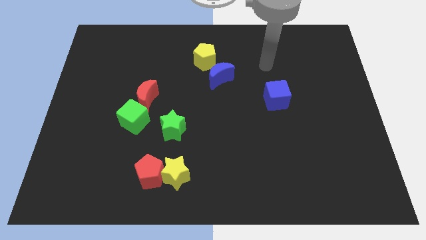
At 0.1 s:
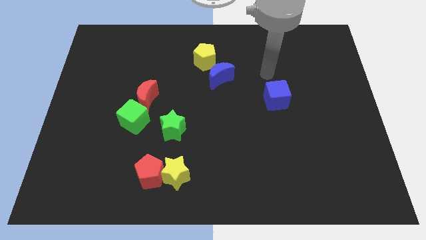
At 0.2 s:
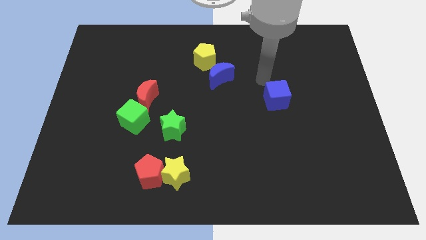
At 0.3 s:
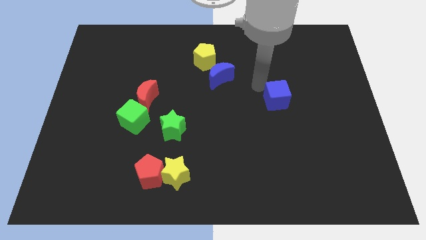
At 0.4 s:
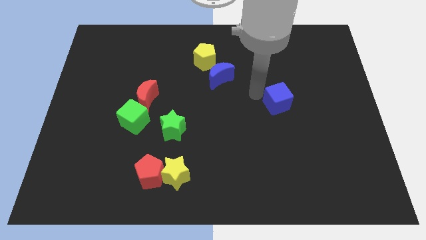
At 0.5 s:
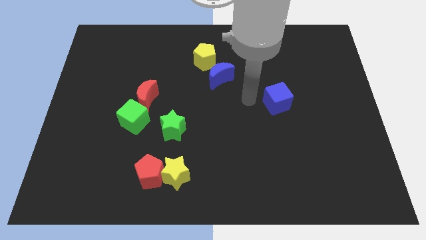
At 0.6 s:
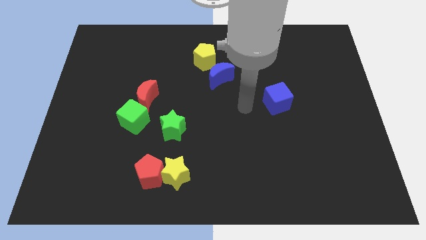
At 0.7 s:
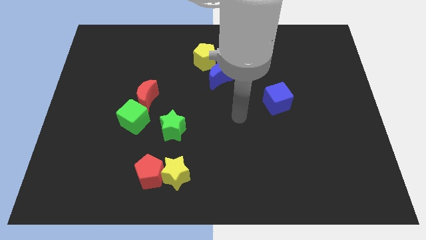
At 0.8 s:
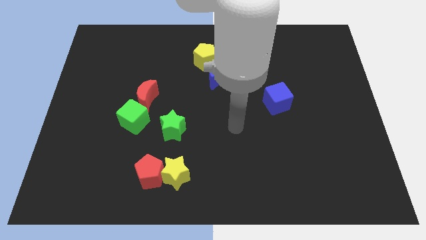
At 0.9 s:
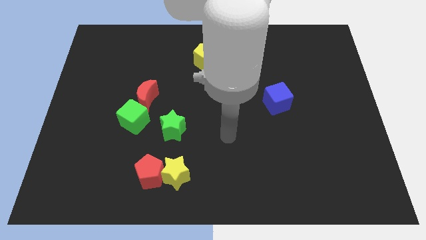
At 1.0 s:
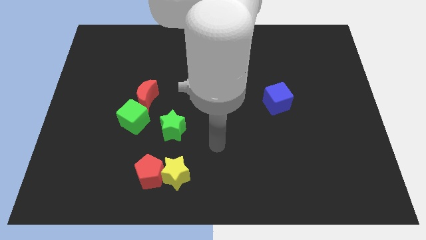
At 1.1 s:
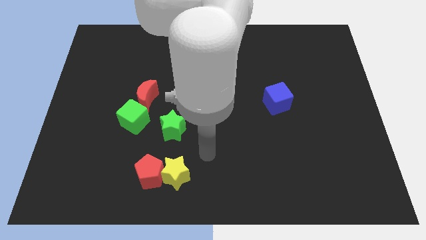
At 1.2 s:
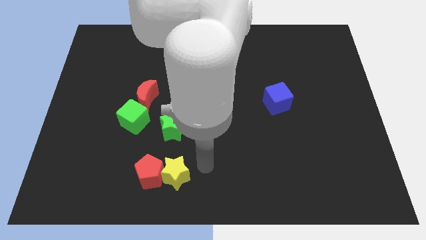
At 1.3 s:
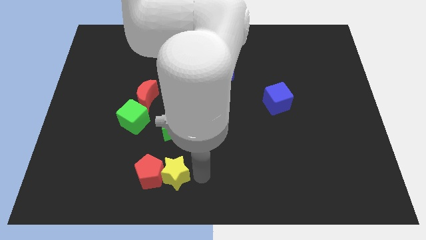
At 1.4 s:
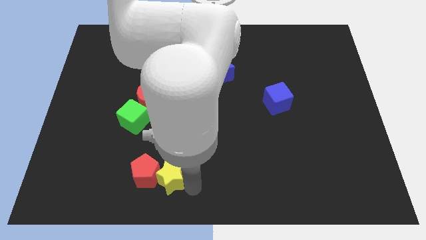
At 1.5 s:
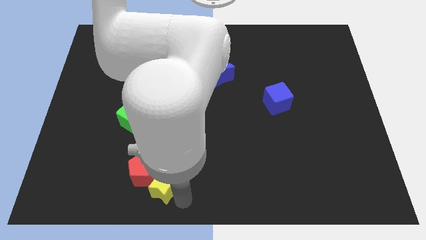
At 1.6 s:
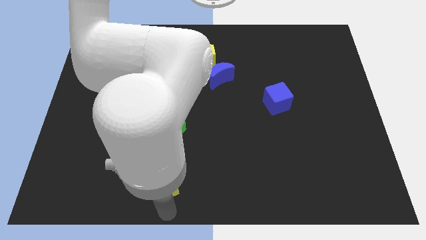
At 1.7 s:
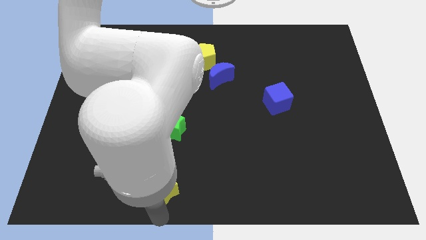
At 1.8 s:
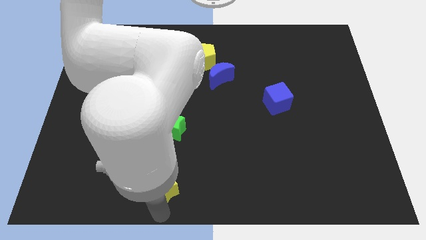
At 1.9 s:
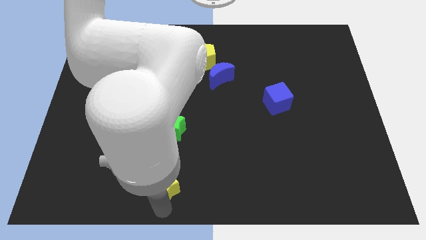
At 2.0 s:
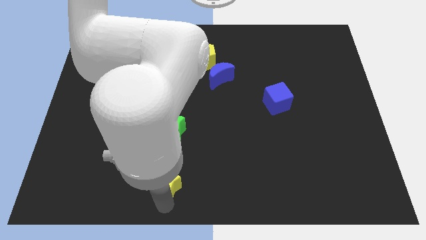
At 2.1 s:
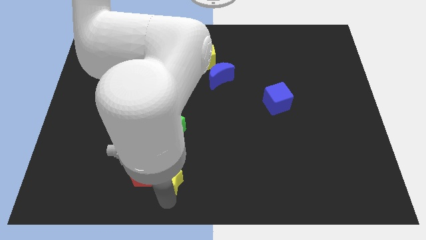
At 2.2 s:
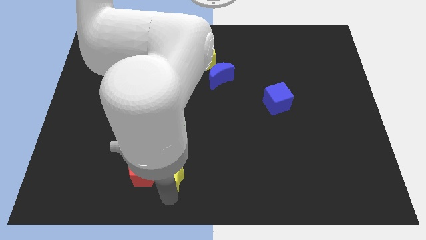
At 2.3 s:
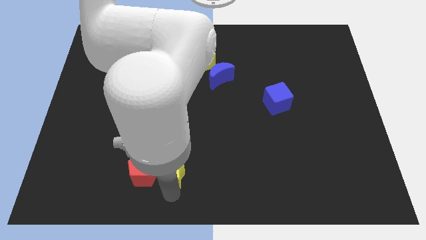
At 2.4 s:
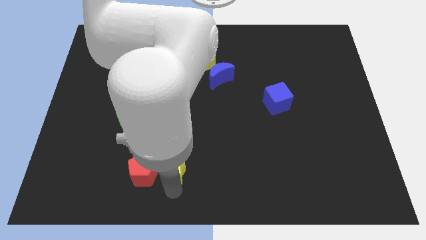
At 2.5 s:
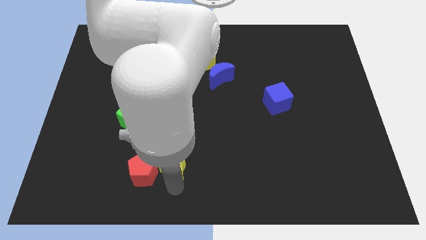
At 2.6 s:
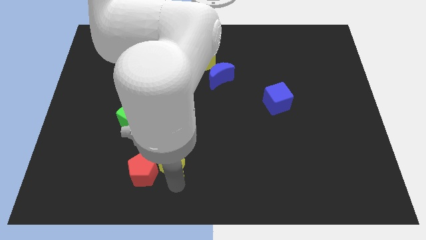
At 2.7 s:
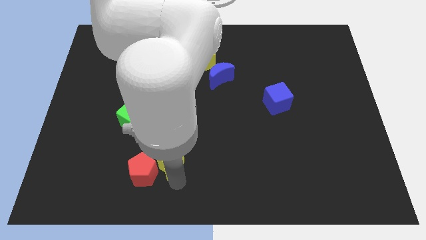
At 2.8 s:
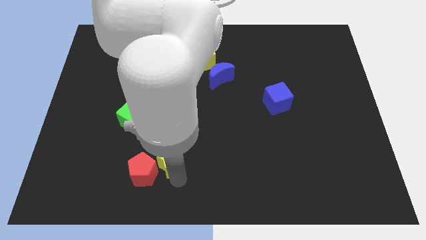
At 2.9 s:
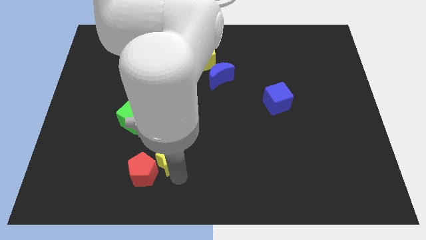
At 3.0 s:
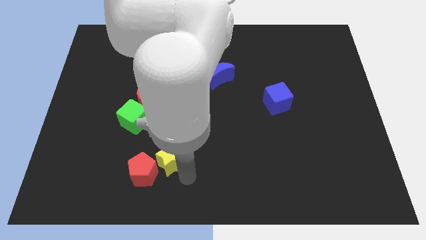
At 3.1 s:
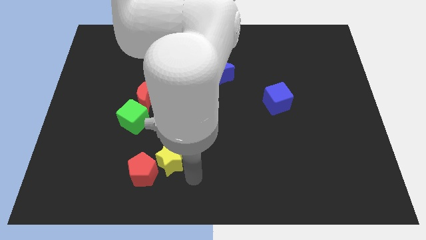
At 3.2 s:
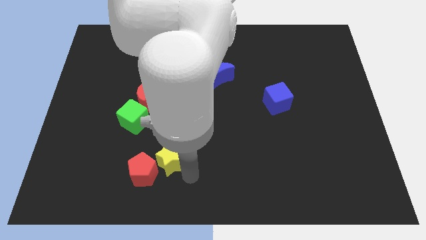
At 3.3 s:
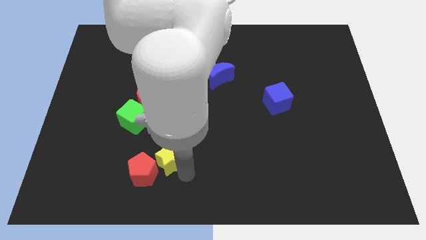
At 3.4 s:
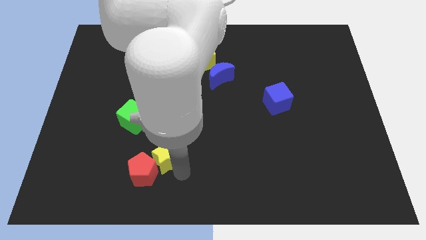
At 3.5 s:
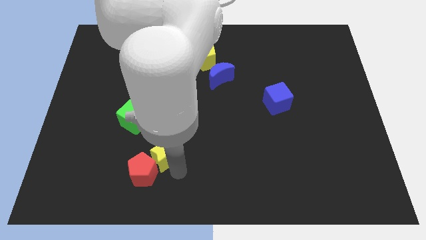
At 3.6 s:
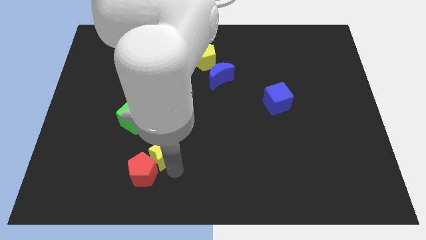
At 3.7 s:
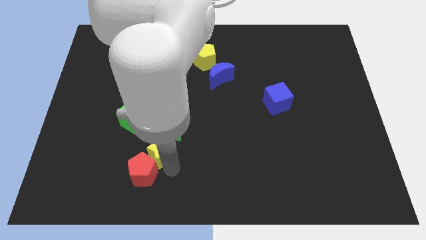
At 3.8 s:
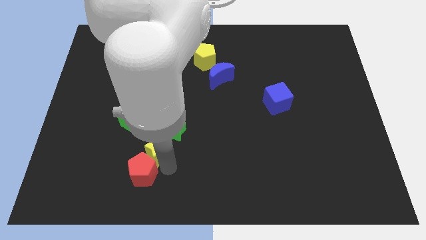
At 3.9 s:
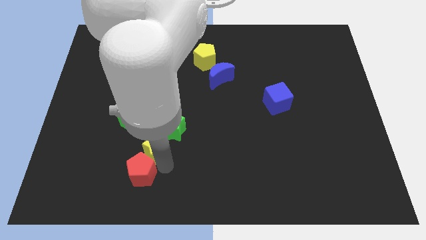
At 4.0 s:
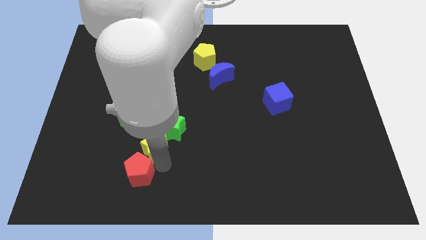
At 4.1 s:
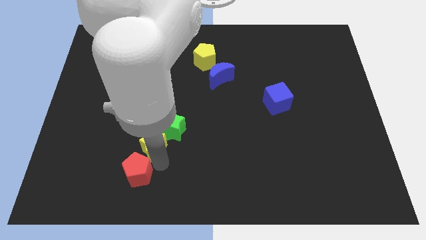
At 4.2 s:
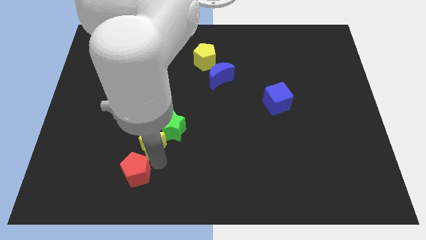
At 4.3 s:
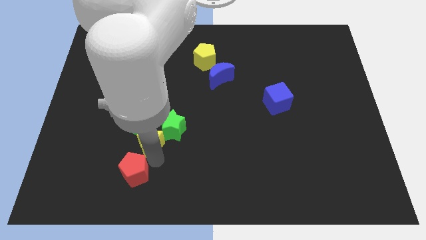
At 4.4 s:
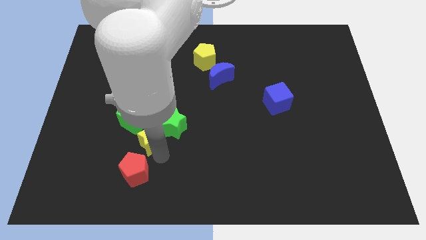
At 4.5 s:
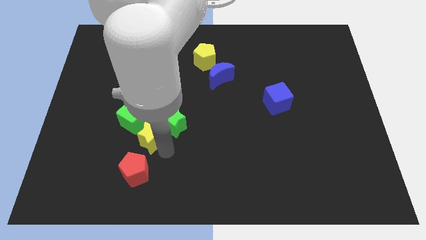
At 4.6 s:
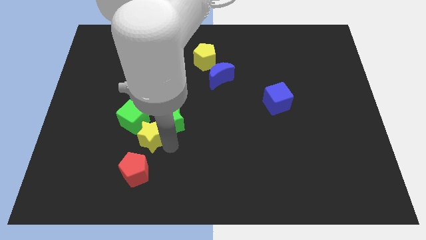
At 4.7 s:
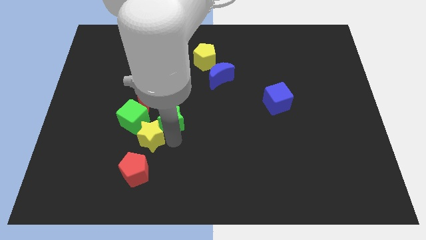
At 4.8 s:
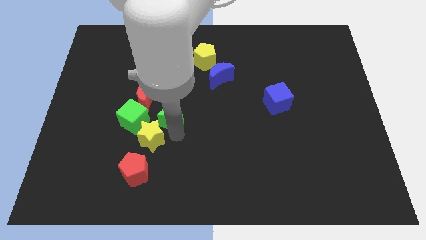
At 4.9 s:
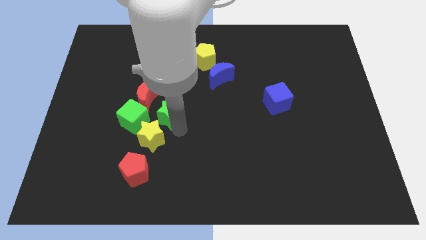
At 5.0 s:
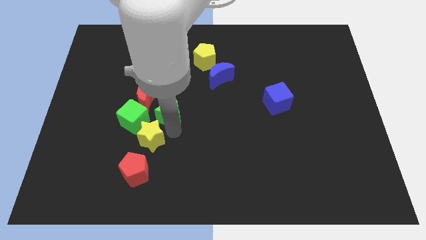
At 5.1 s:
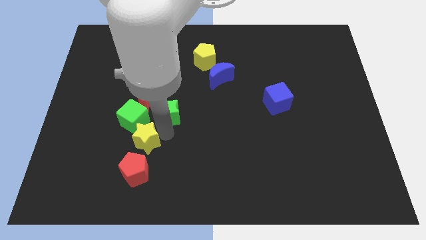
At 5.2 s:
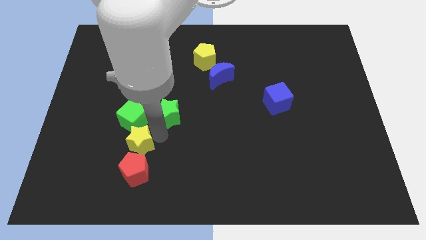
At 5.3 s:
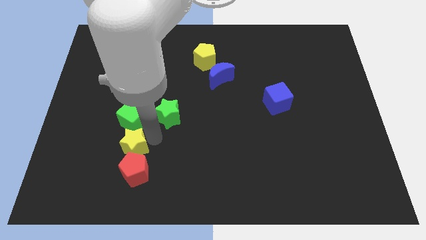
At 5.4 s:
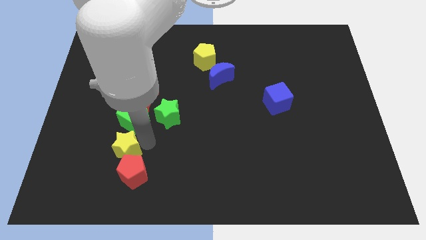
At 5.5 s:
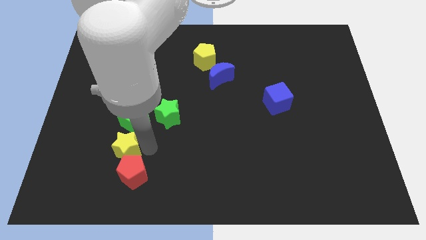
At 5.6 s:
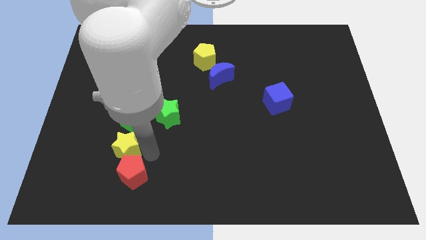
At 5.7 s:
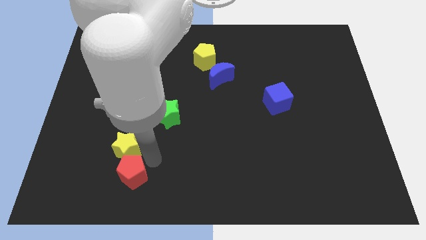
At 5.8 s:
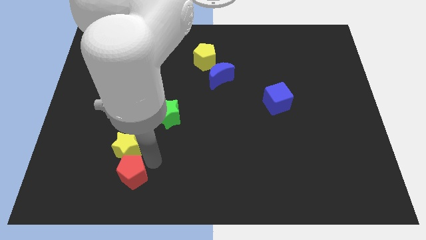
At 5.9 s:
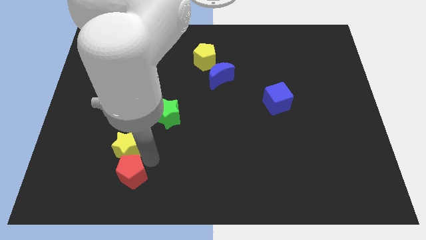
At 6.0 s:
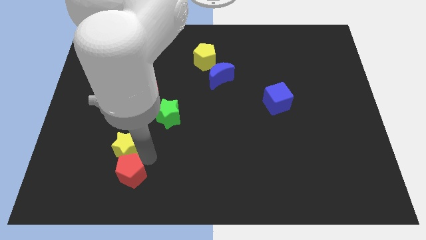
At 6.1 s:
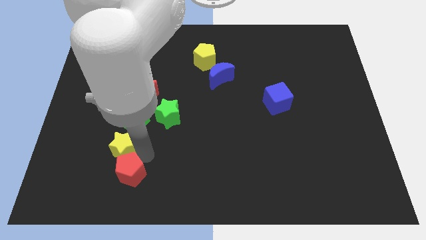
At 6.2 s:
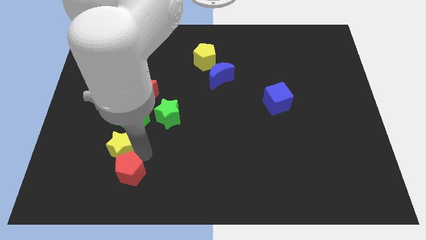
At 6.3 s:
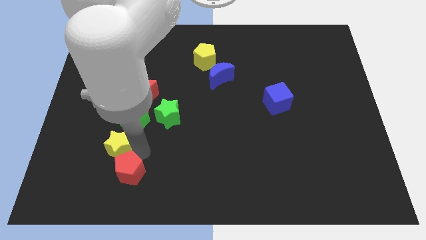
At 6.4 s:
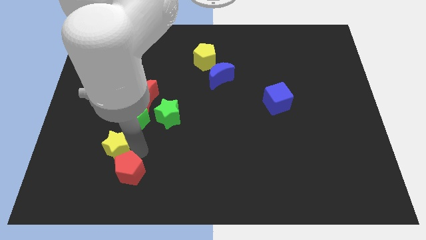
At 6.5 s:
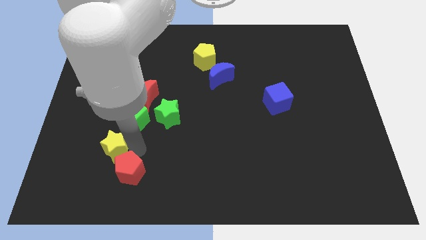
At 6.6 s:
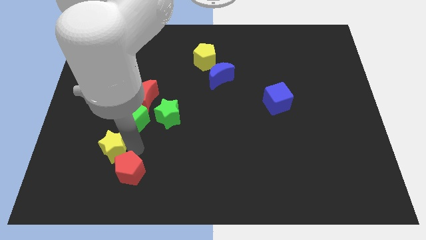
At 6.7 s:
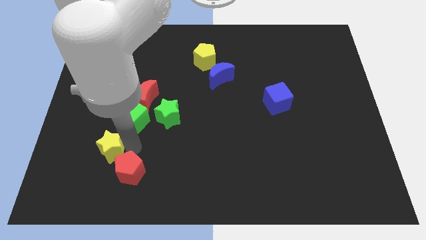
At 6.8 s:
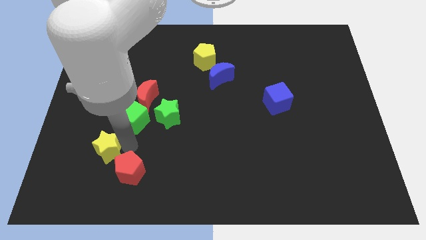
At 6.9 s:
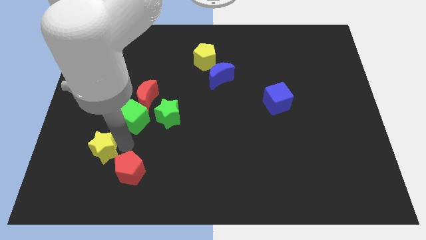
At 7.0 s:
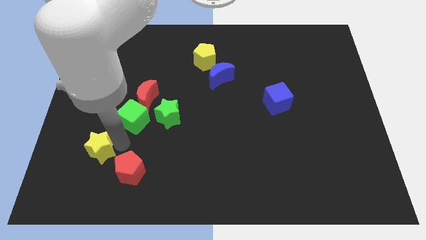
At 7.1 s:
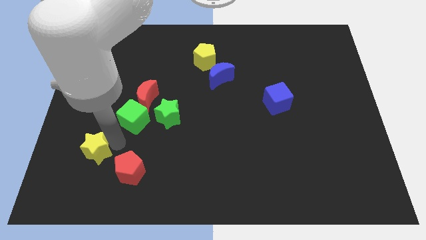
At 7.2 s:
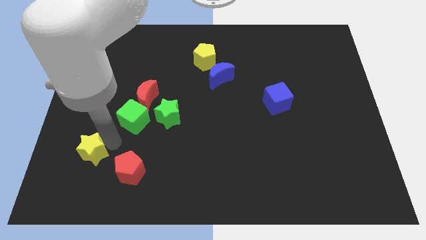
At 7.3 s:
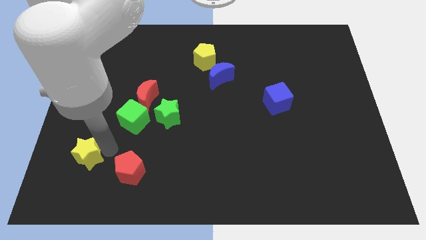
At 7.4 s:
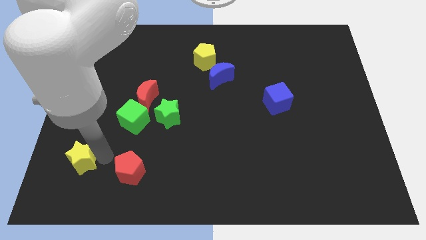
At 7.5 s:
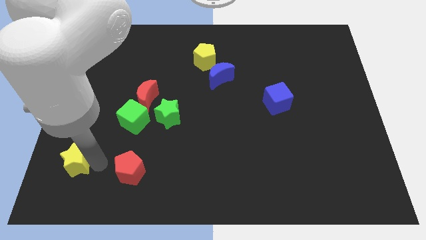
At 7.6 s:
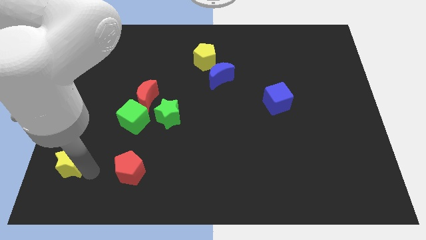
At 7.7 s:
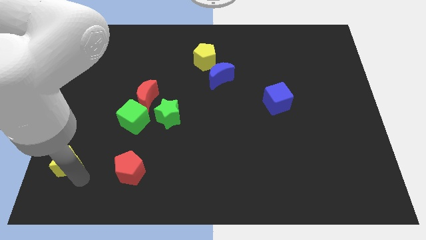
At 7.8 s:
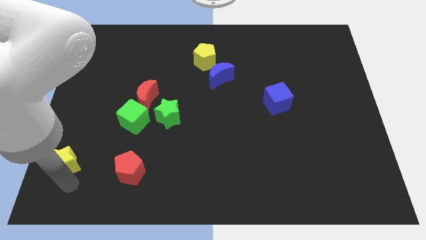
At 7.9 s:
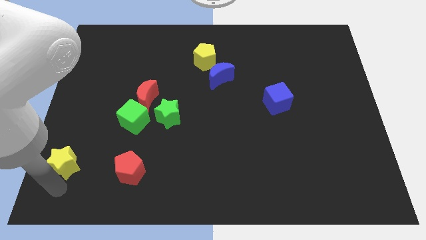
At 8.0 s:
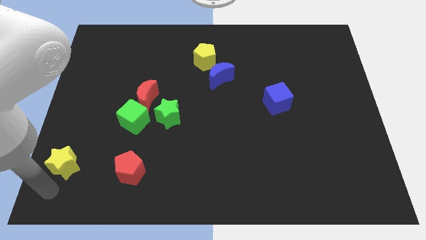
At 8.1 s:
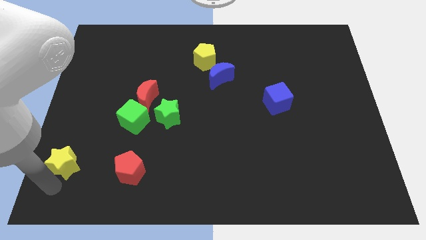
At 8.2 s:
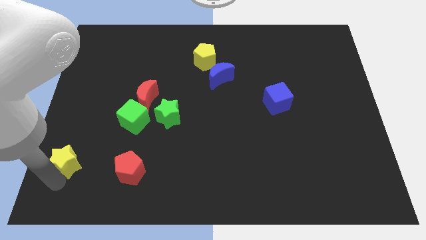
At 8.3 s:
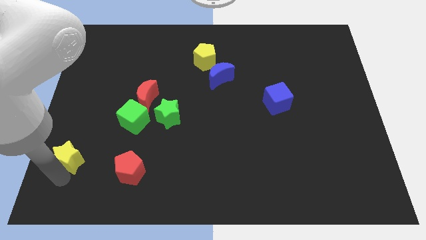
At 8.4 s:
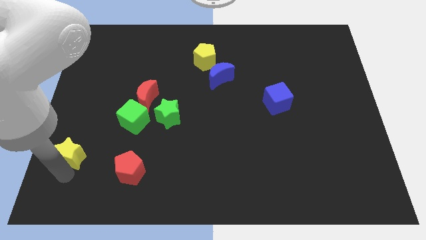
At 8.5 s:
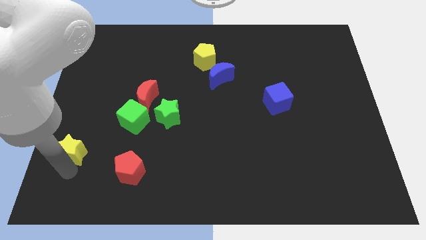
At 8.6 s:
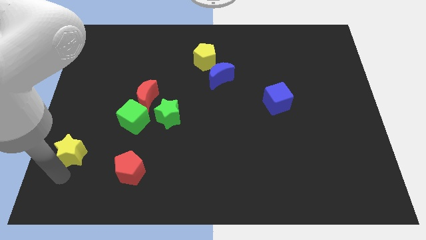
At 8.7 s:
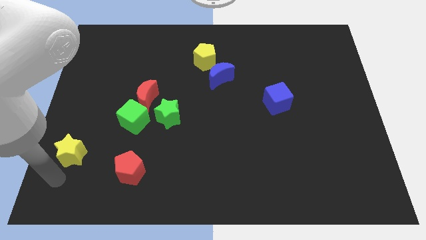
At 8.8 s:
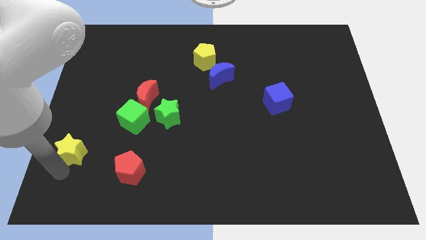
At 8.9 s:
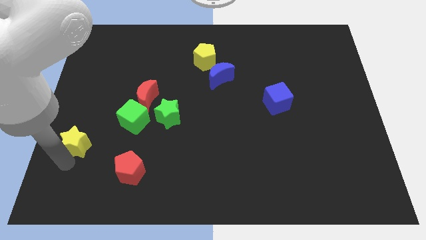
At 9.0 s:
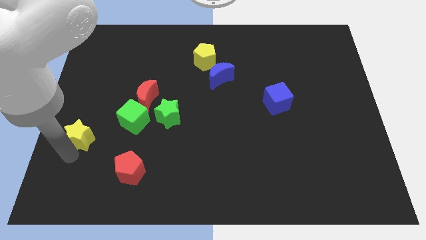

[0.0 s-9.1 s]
put the yellow star to the left side
